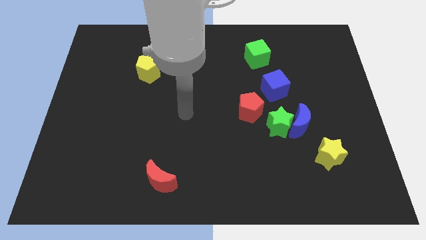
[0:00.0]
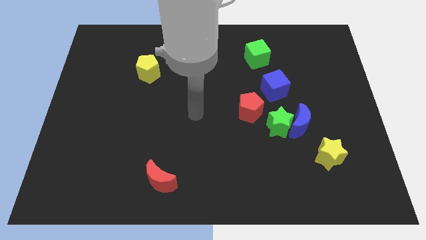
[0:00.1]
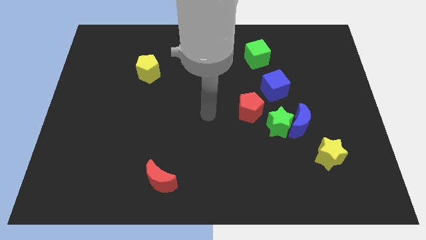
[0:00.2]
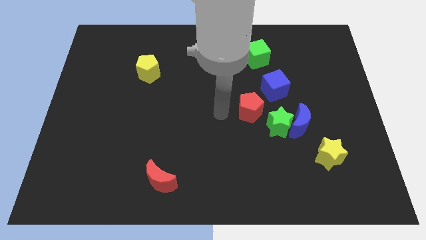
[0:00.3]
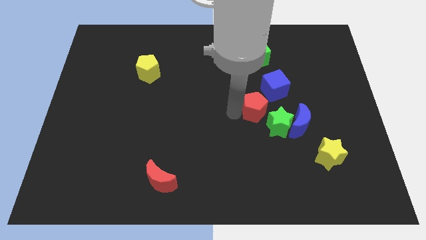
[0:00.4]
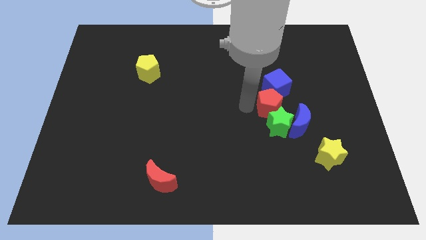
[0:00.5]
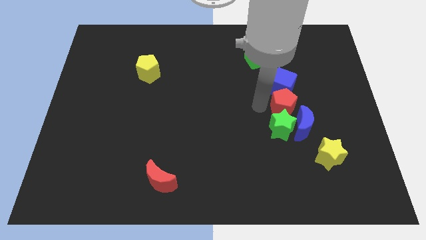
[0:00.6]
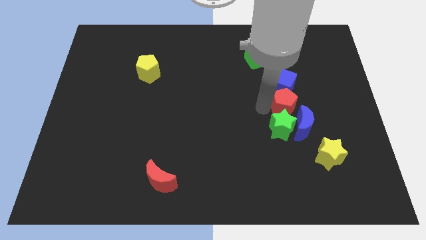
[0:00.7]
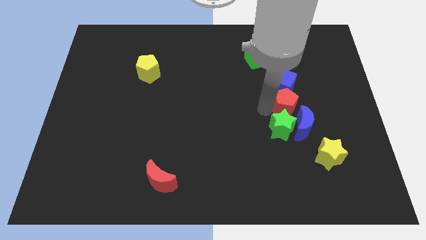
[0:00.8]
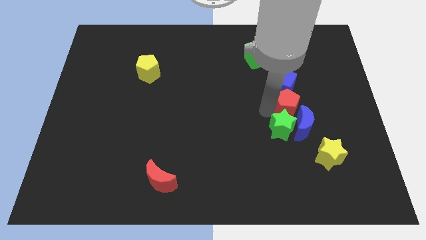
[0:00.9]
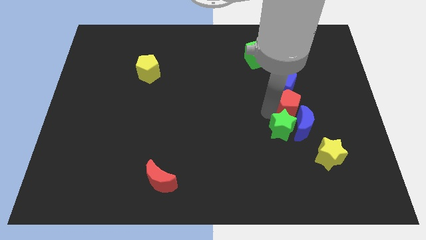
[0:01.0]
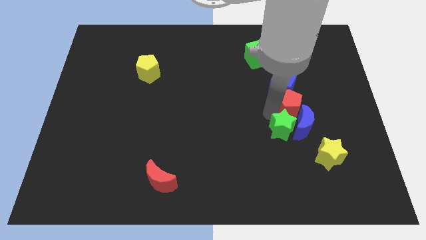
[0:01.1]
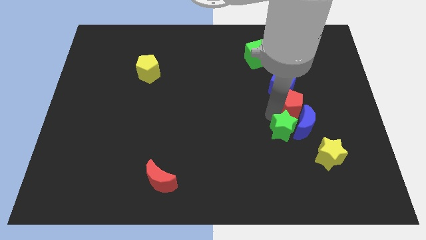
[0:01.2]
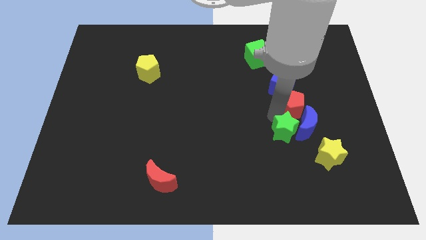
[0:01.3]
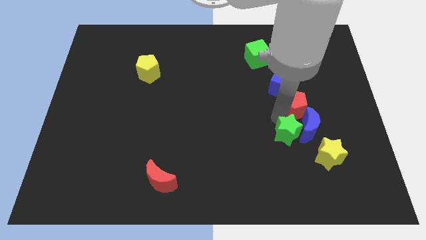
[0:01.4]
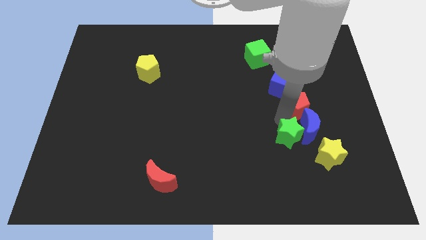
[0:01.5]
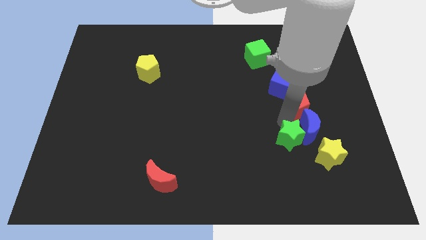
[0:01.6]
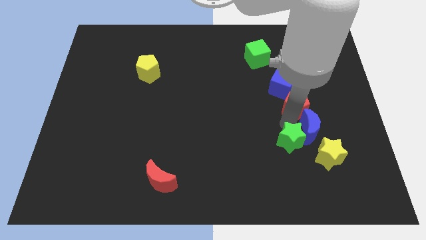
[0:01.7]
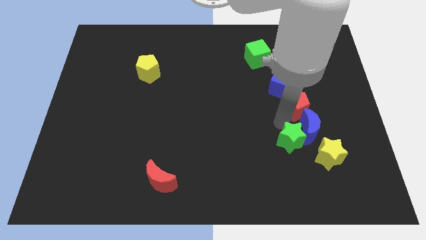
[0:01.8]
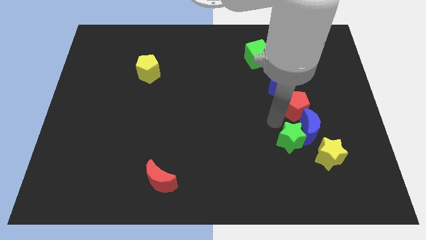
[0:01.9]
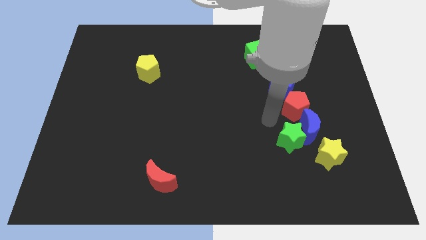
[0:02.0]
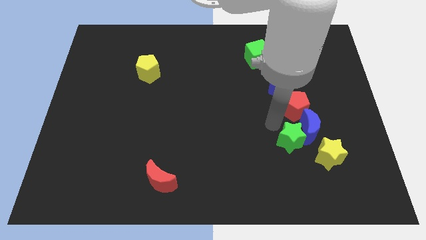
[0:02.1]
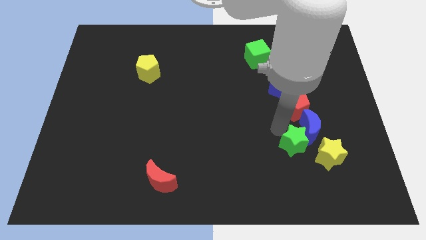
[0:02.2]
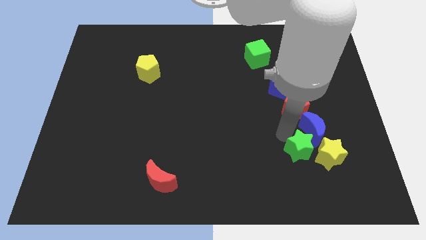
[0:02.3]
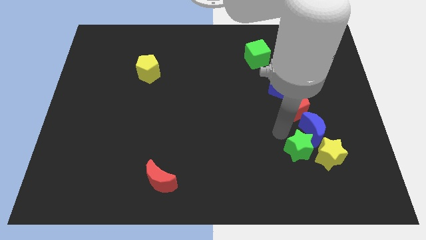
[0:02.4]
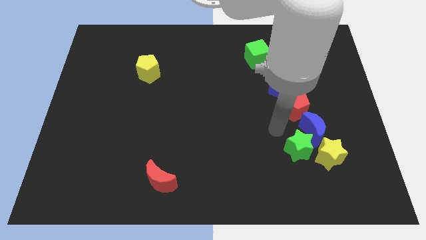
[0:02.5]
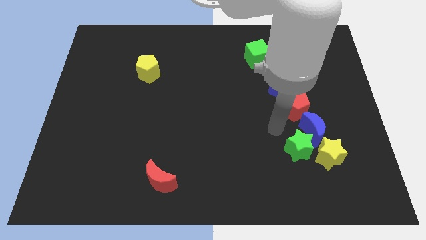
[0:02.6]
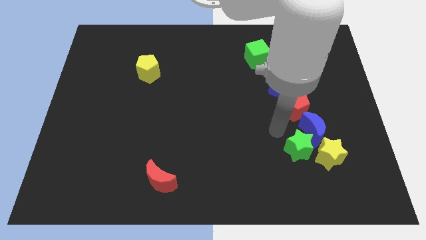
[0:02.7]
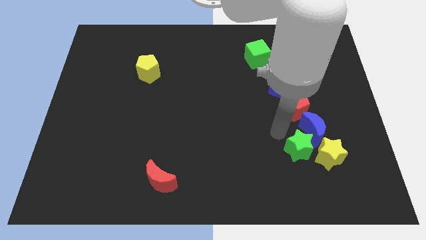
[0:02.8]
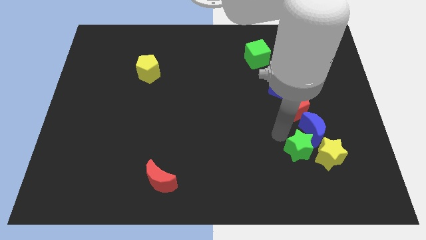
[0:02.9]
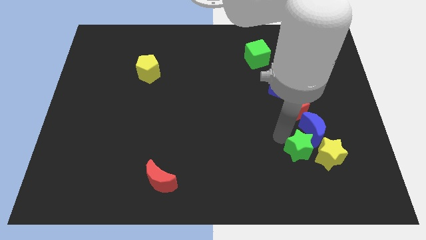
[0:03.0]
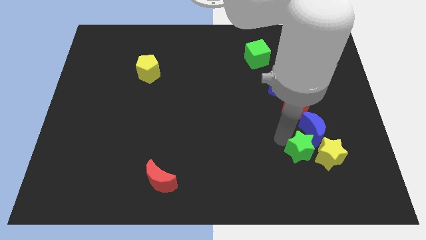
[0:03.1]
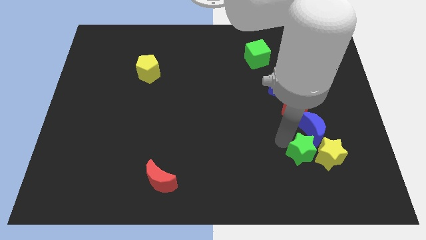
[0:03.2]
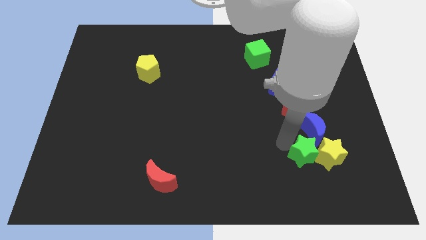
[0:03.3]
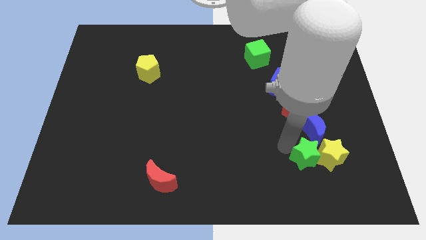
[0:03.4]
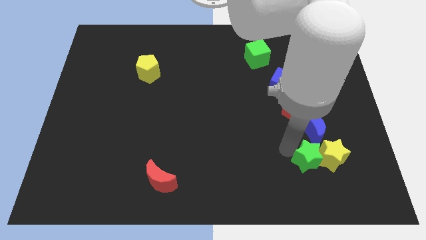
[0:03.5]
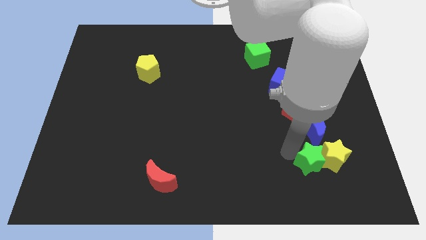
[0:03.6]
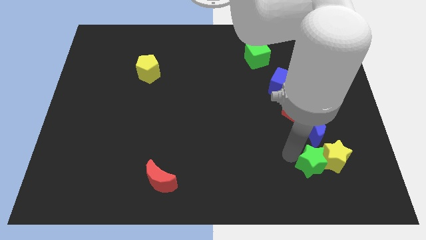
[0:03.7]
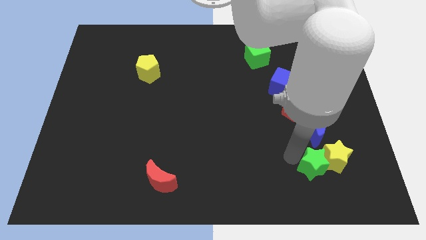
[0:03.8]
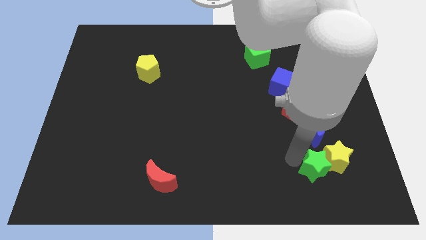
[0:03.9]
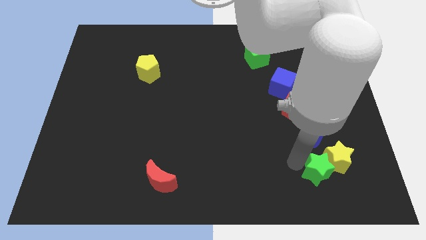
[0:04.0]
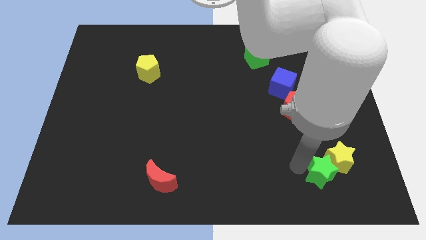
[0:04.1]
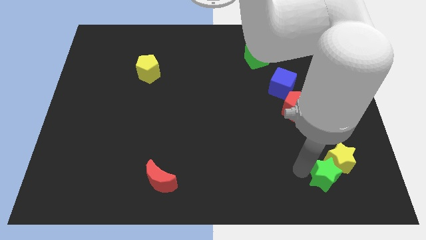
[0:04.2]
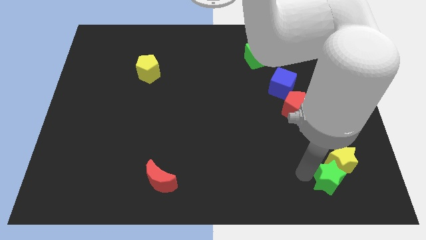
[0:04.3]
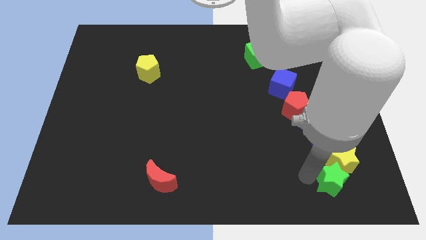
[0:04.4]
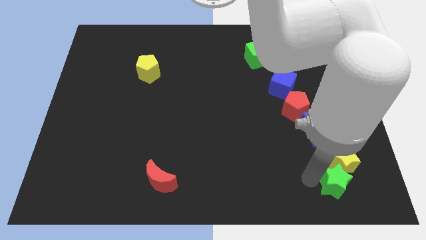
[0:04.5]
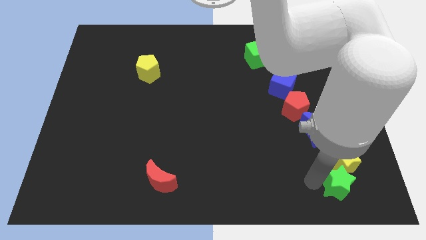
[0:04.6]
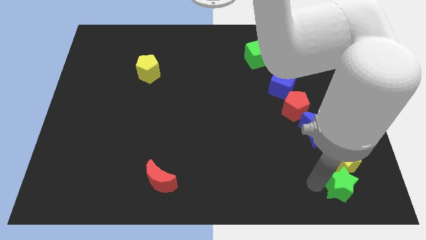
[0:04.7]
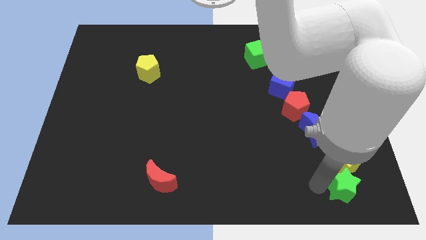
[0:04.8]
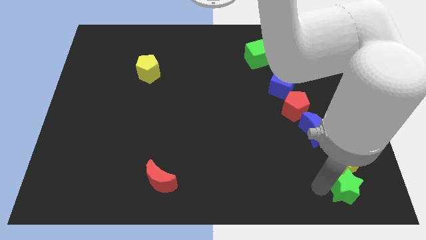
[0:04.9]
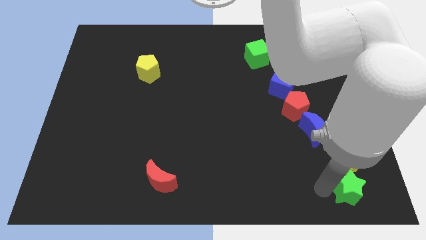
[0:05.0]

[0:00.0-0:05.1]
move the green star to the lower right corner

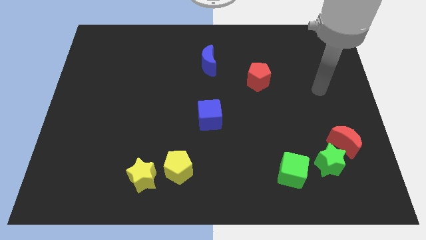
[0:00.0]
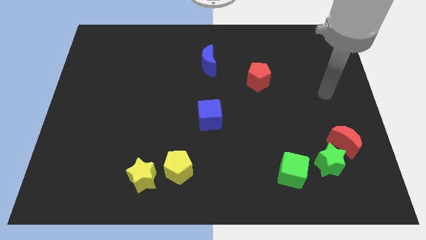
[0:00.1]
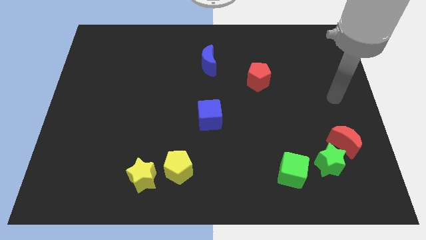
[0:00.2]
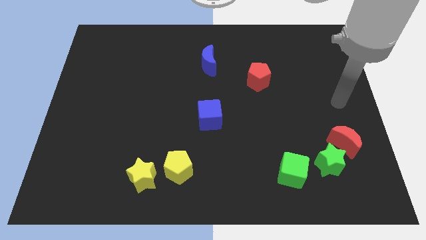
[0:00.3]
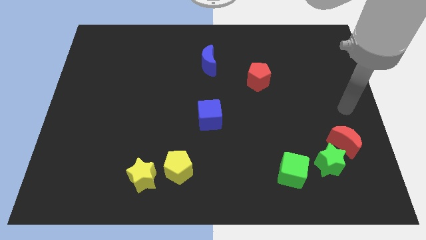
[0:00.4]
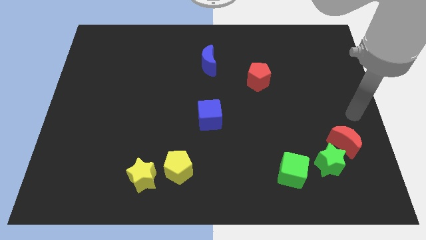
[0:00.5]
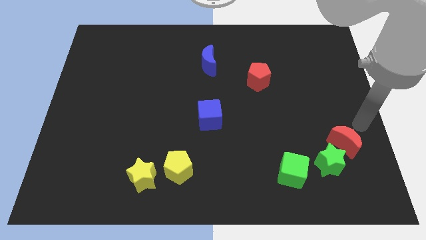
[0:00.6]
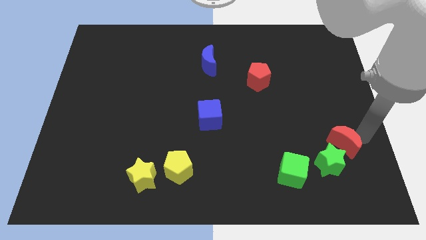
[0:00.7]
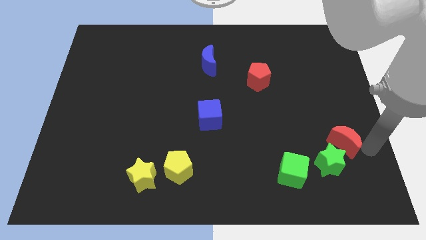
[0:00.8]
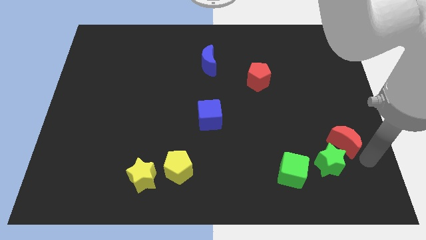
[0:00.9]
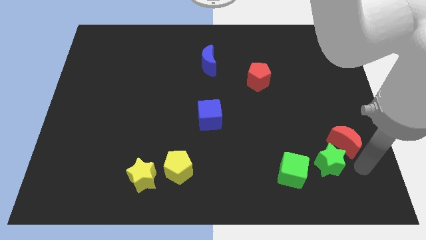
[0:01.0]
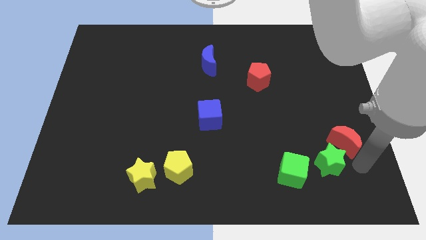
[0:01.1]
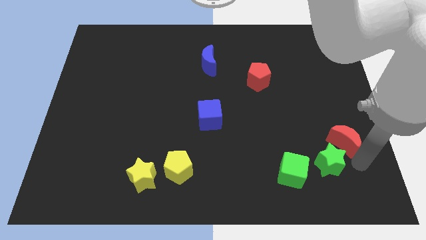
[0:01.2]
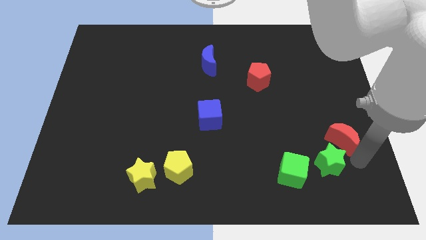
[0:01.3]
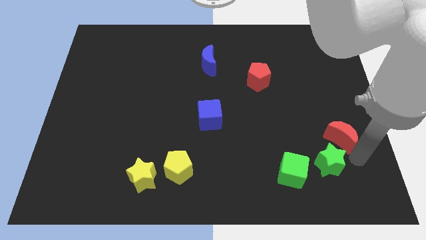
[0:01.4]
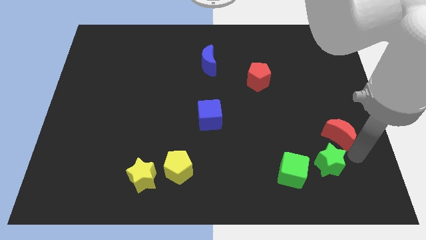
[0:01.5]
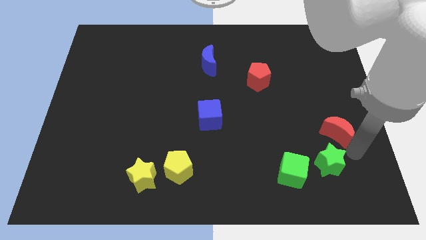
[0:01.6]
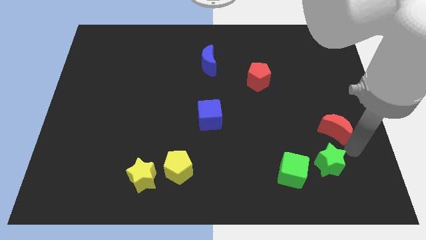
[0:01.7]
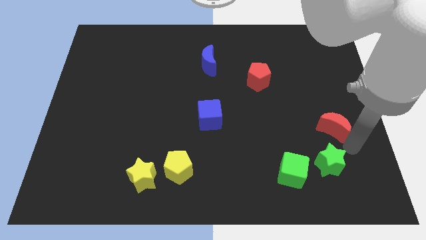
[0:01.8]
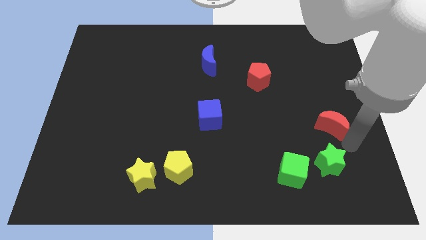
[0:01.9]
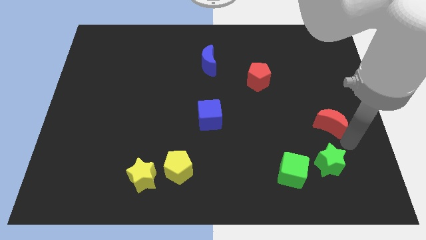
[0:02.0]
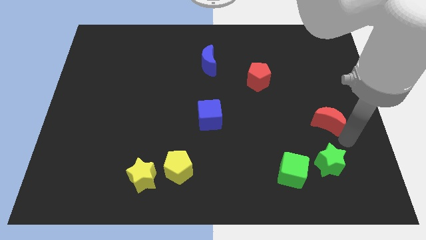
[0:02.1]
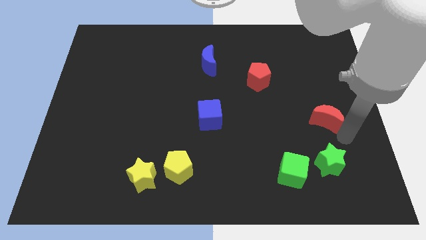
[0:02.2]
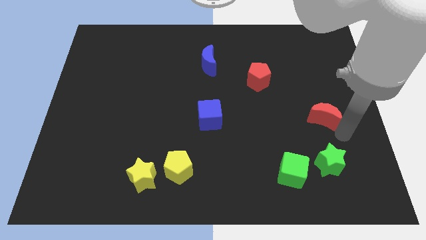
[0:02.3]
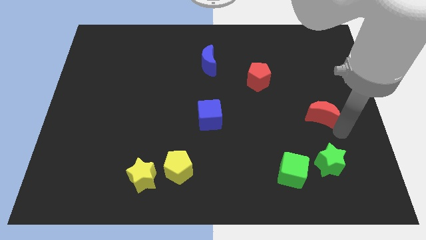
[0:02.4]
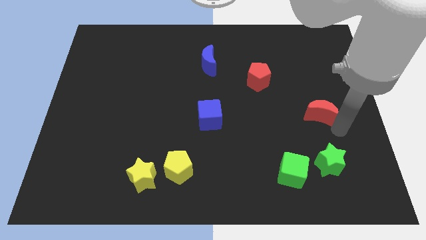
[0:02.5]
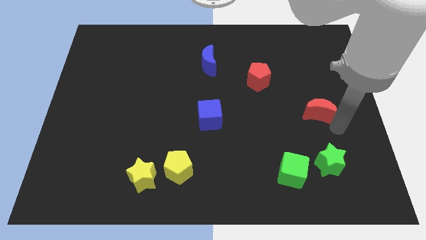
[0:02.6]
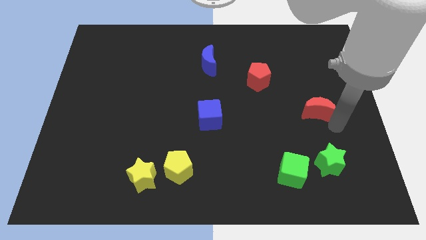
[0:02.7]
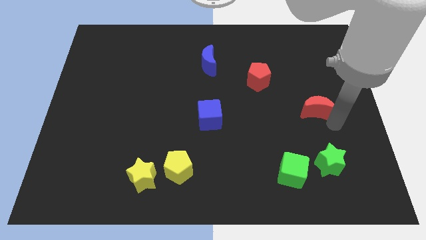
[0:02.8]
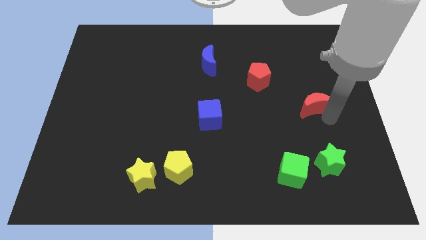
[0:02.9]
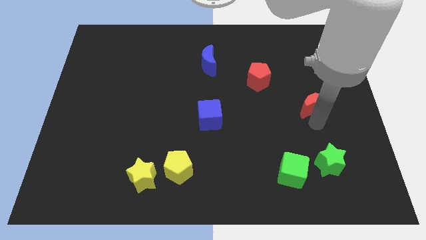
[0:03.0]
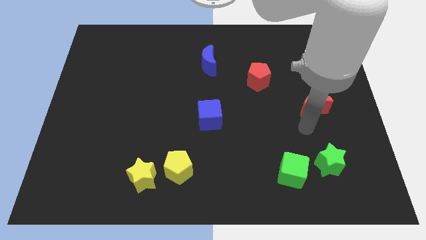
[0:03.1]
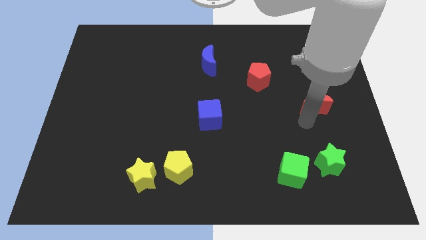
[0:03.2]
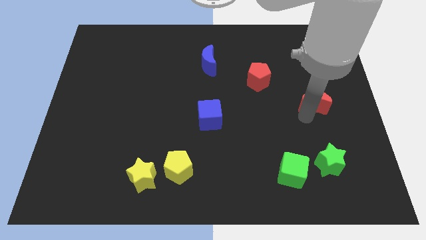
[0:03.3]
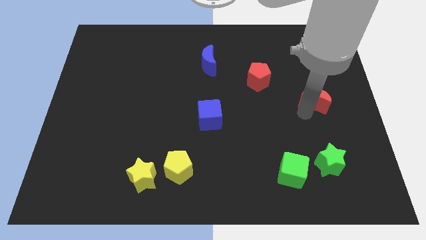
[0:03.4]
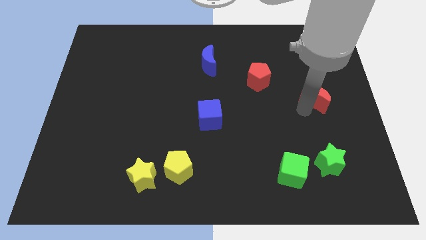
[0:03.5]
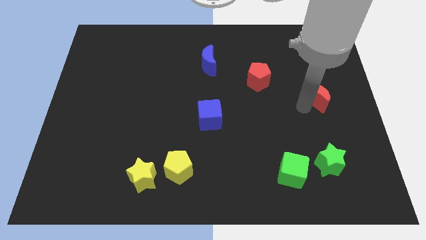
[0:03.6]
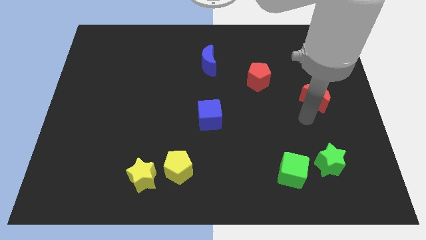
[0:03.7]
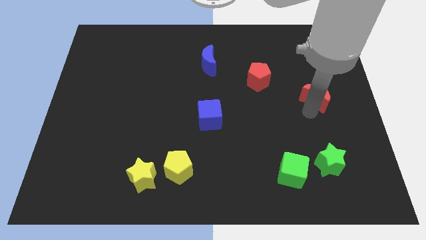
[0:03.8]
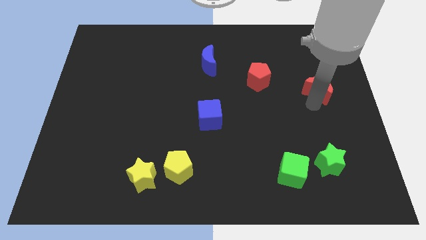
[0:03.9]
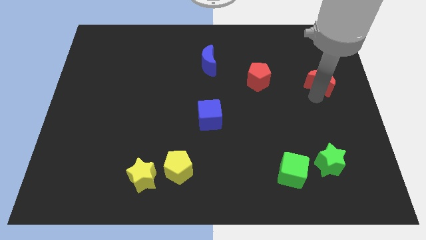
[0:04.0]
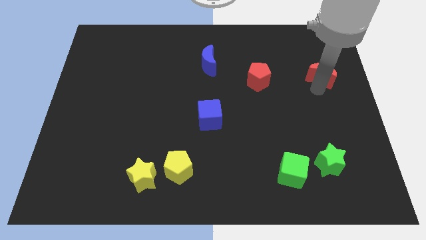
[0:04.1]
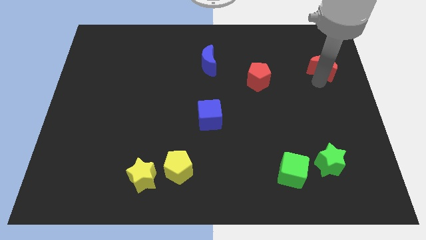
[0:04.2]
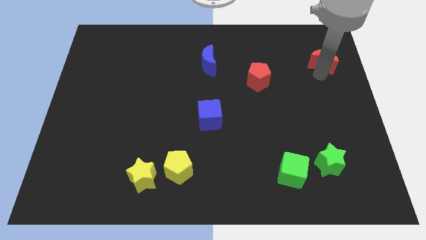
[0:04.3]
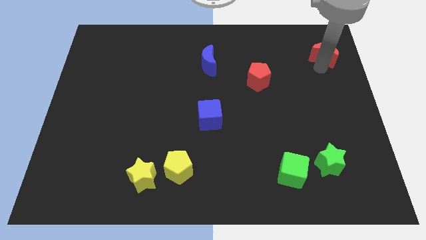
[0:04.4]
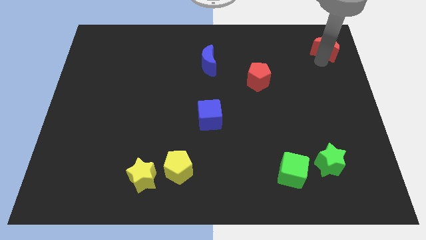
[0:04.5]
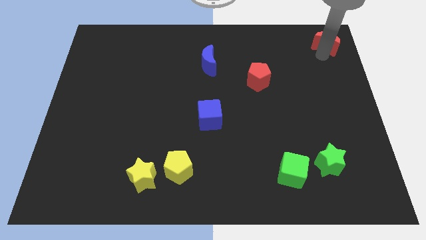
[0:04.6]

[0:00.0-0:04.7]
move the red moon to the top right
